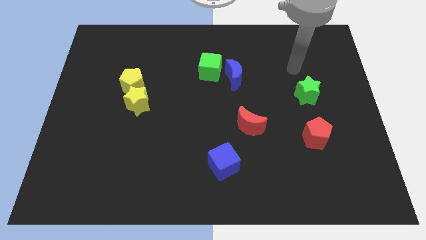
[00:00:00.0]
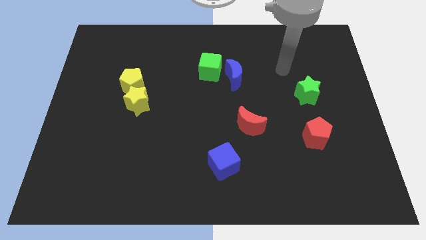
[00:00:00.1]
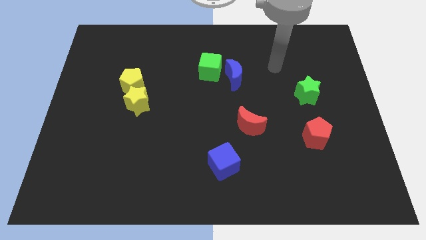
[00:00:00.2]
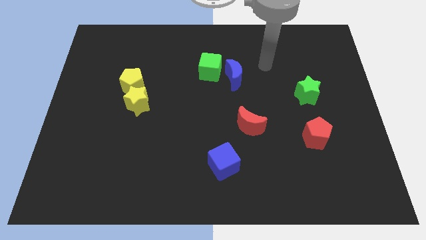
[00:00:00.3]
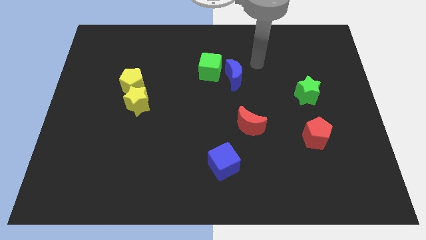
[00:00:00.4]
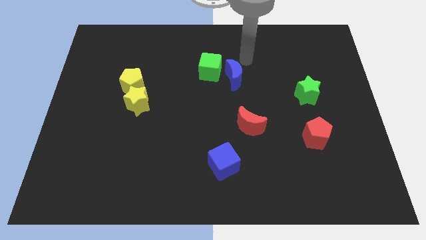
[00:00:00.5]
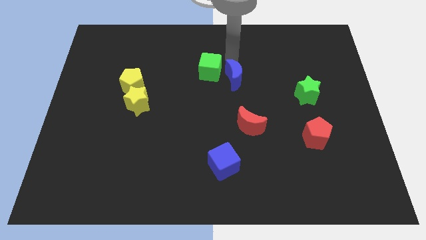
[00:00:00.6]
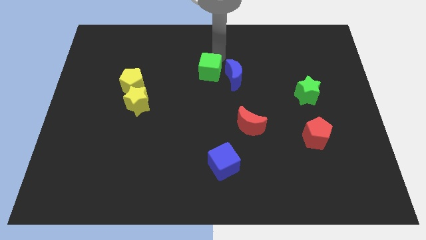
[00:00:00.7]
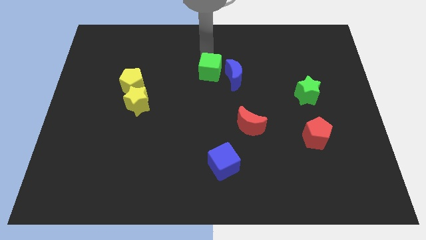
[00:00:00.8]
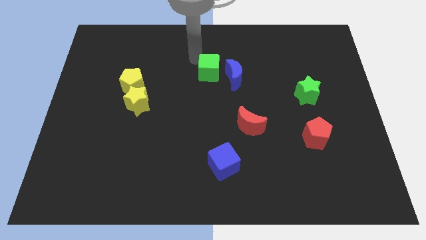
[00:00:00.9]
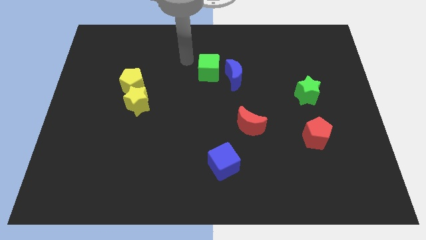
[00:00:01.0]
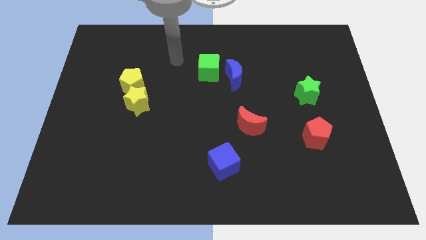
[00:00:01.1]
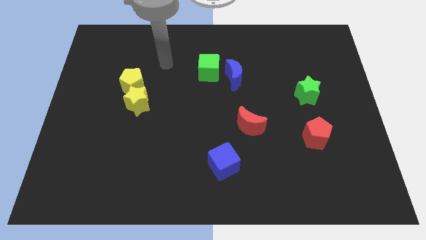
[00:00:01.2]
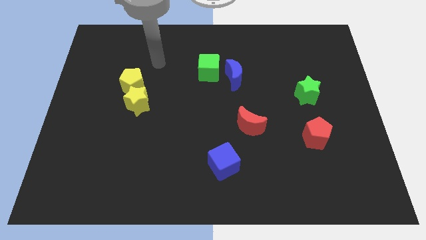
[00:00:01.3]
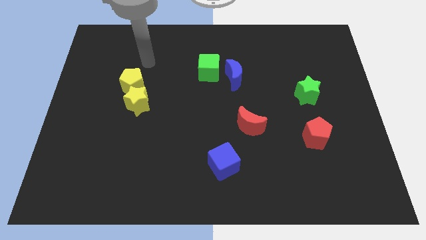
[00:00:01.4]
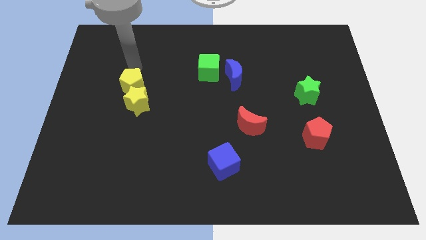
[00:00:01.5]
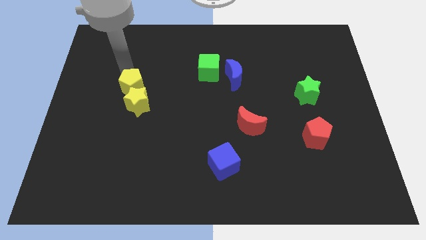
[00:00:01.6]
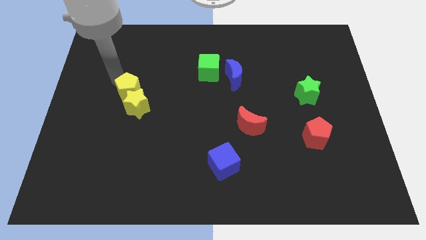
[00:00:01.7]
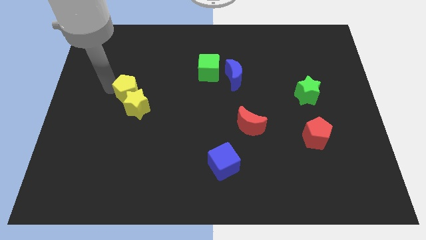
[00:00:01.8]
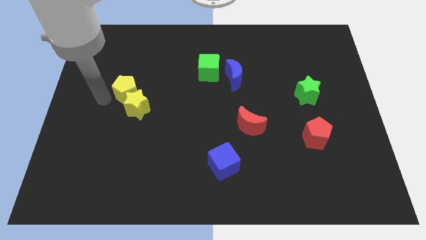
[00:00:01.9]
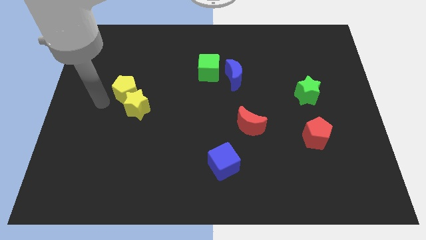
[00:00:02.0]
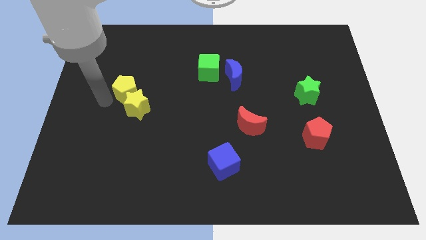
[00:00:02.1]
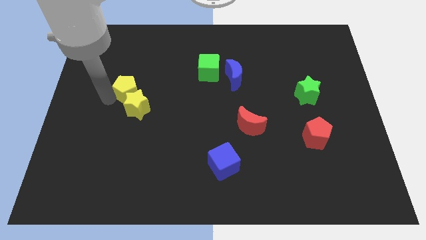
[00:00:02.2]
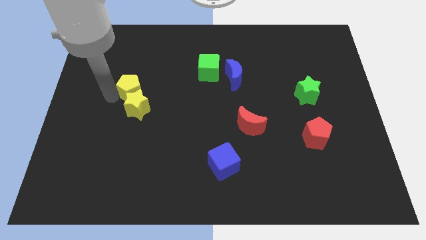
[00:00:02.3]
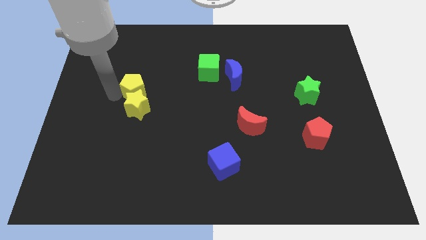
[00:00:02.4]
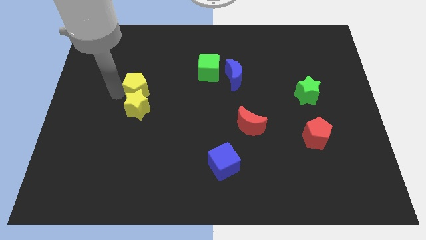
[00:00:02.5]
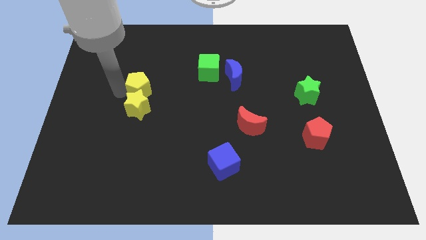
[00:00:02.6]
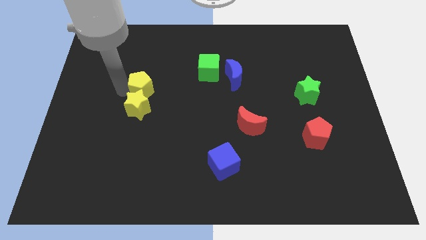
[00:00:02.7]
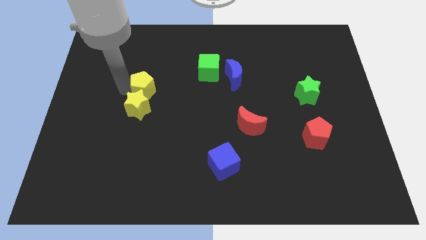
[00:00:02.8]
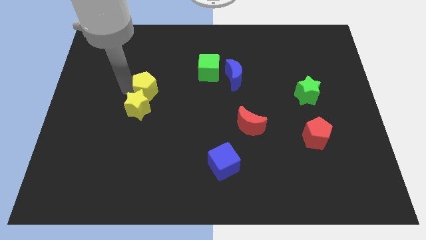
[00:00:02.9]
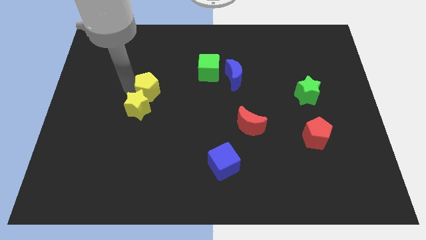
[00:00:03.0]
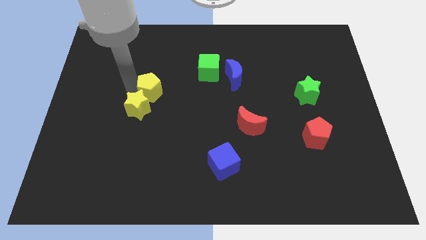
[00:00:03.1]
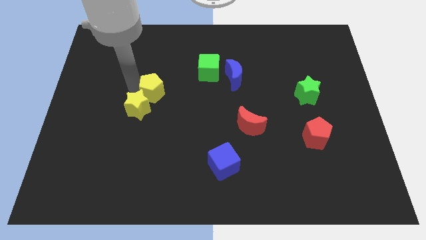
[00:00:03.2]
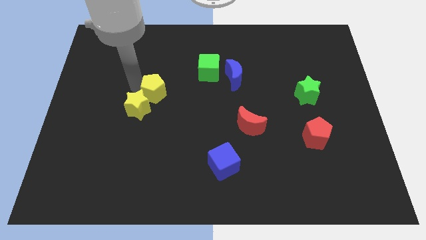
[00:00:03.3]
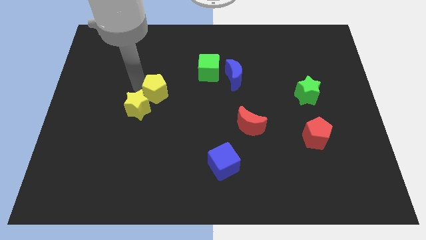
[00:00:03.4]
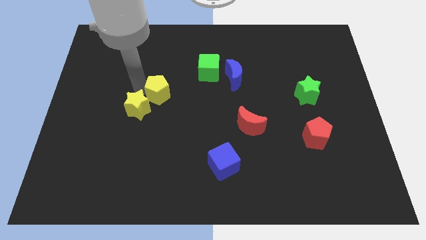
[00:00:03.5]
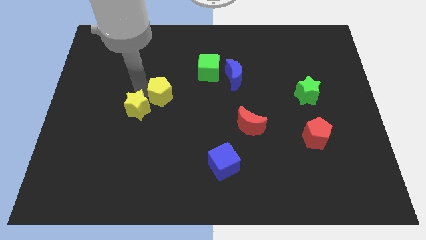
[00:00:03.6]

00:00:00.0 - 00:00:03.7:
slide the yellow pentagon to the right somewhat

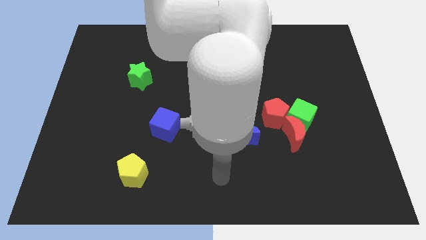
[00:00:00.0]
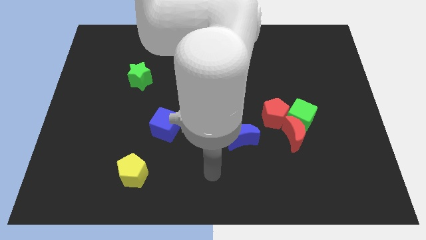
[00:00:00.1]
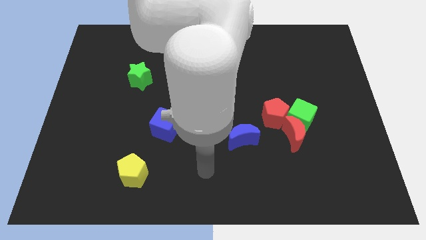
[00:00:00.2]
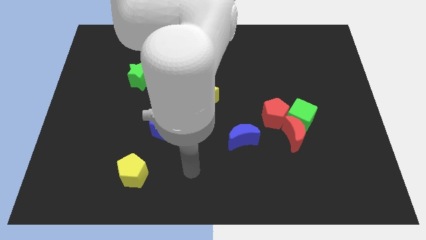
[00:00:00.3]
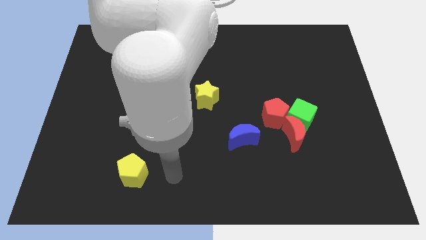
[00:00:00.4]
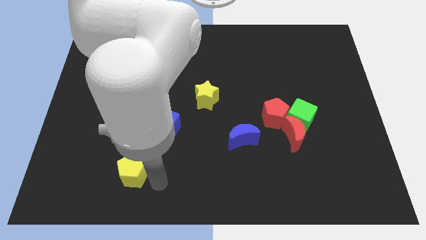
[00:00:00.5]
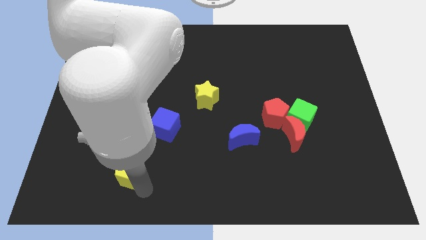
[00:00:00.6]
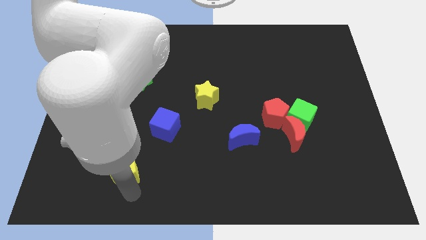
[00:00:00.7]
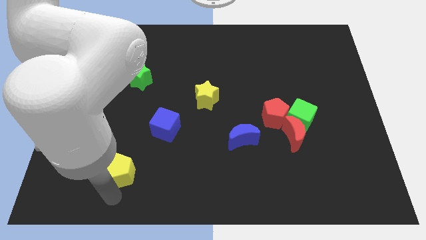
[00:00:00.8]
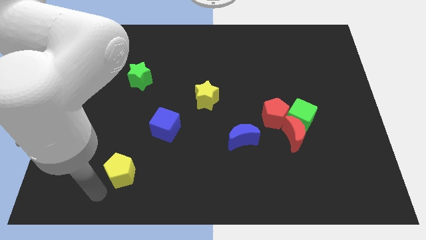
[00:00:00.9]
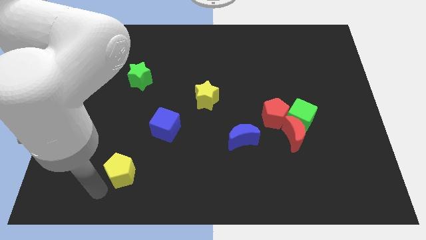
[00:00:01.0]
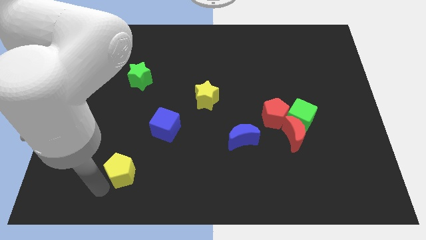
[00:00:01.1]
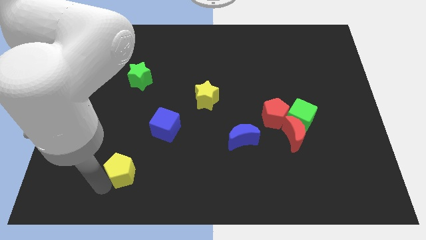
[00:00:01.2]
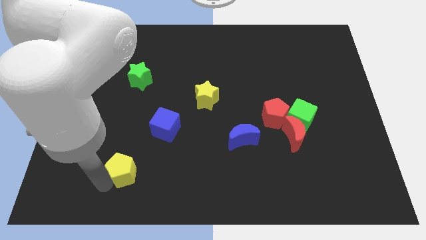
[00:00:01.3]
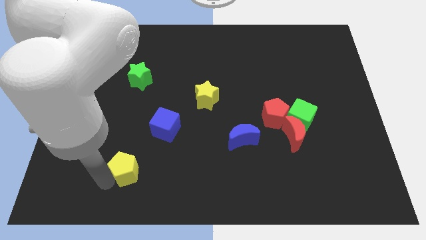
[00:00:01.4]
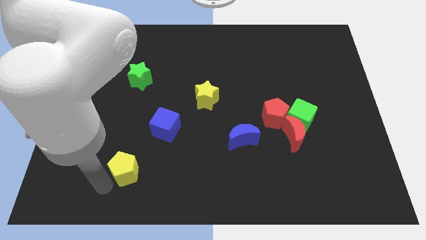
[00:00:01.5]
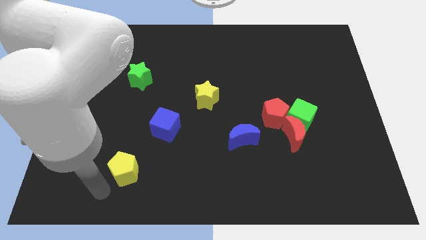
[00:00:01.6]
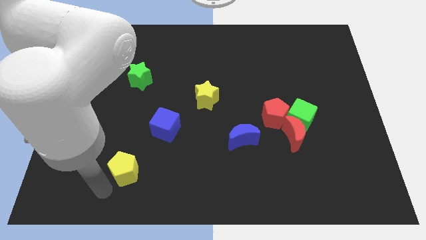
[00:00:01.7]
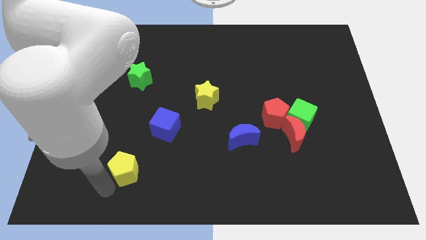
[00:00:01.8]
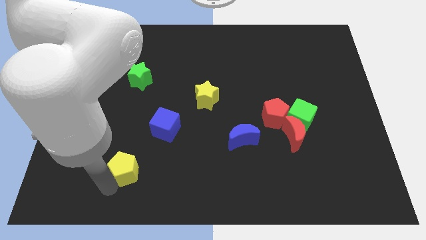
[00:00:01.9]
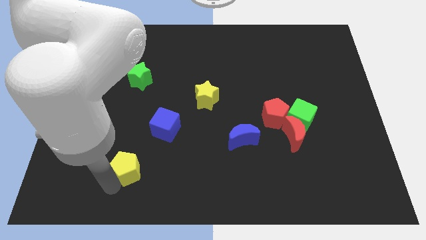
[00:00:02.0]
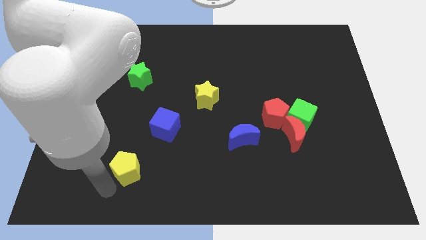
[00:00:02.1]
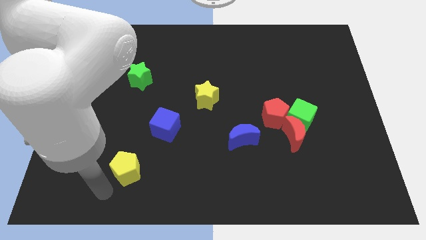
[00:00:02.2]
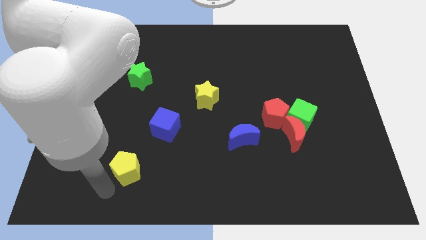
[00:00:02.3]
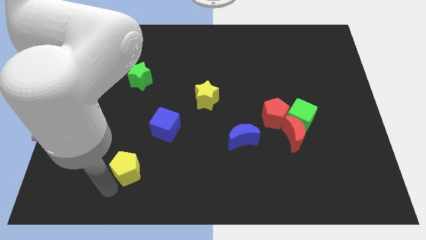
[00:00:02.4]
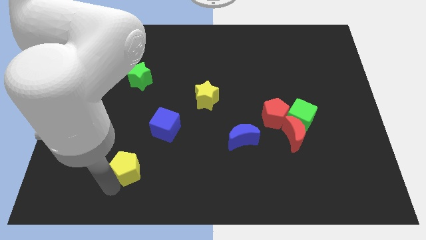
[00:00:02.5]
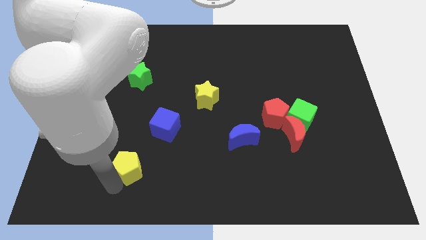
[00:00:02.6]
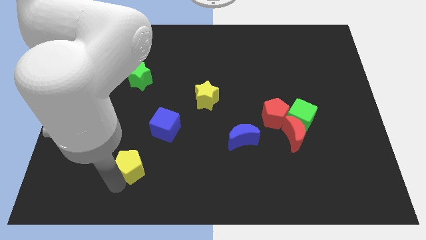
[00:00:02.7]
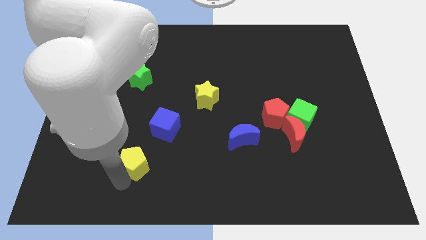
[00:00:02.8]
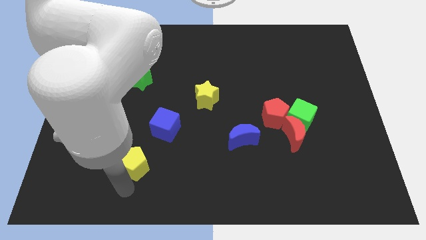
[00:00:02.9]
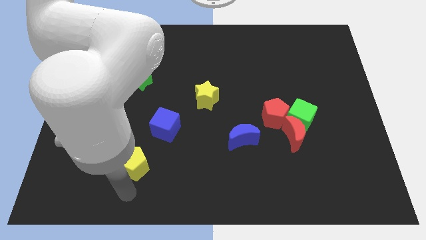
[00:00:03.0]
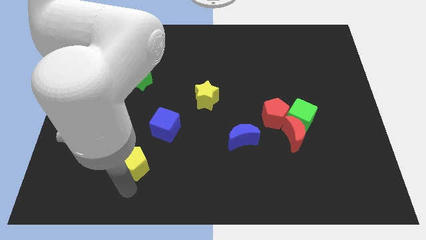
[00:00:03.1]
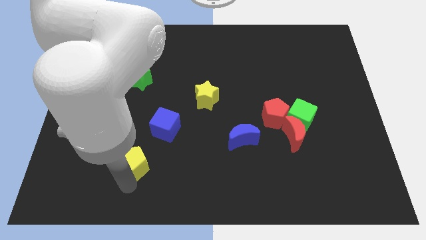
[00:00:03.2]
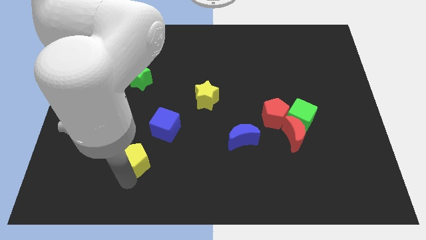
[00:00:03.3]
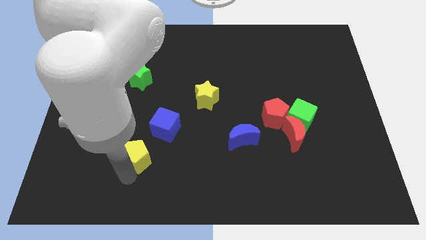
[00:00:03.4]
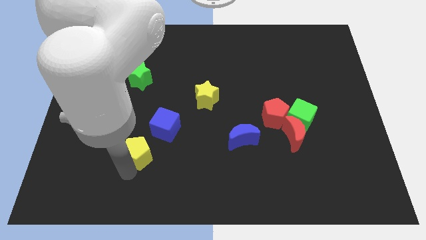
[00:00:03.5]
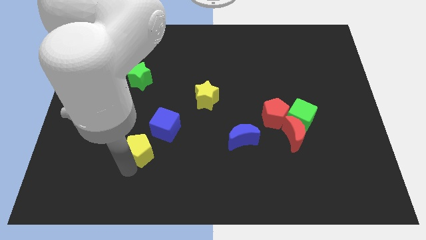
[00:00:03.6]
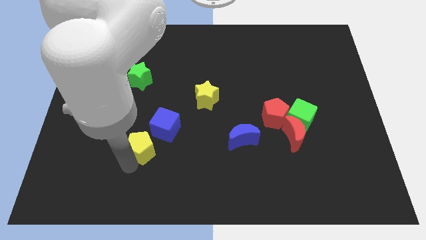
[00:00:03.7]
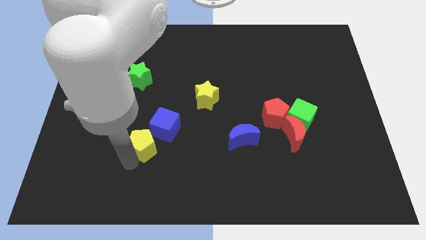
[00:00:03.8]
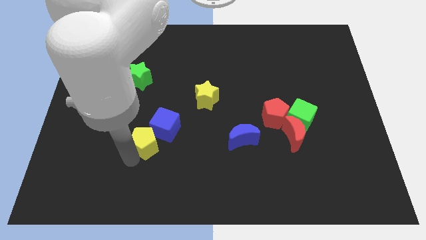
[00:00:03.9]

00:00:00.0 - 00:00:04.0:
slightly slide the yellow pentagon up
